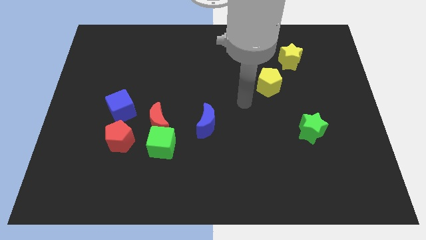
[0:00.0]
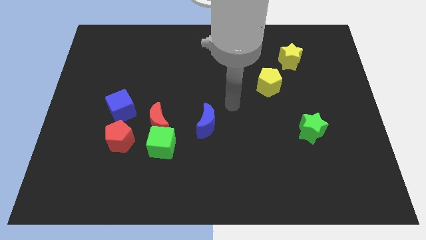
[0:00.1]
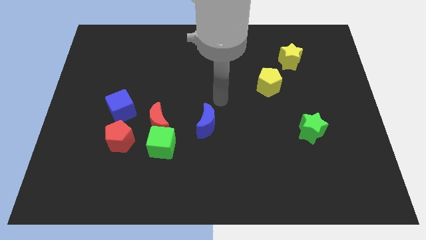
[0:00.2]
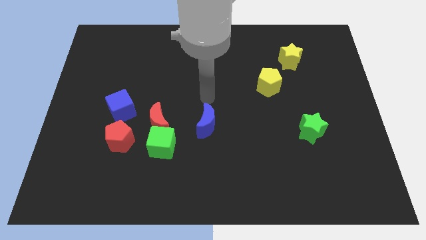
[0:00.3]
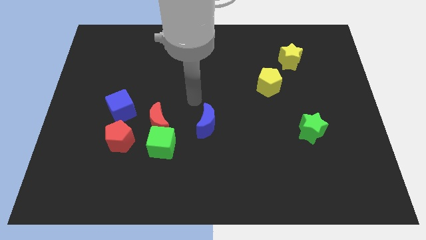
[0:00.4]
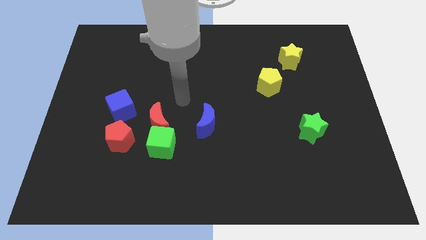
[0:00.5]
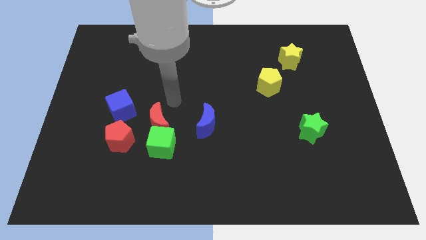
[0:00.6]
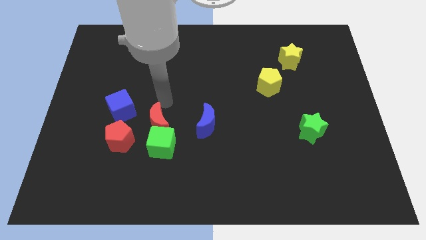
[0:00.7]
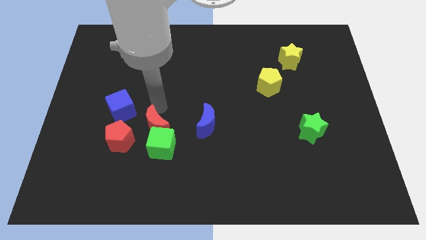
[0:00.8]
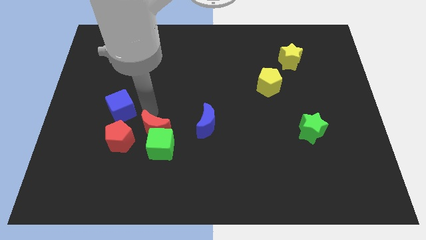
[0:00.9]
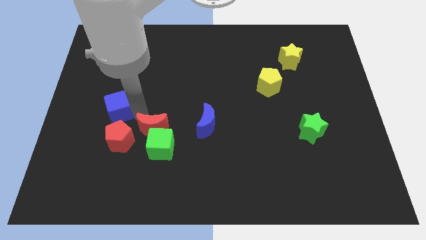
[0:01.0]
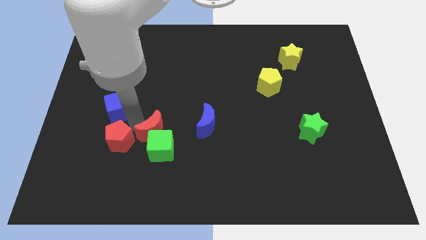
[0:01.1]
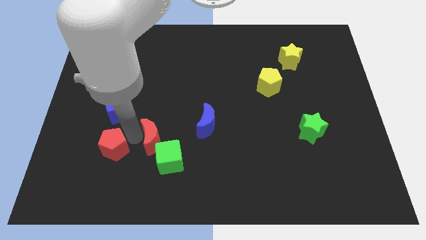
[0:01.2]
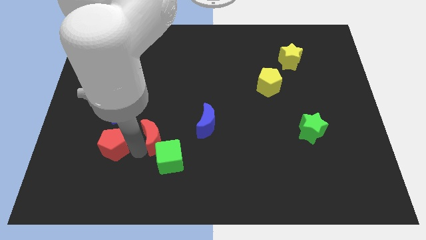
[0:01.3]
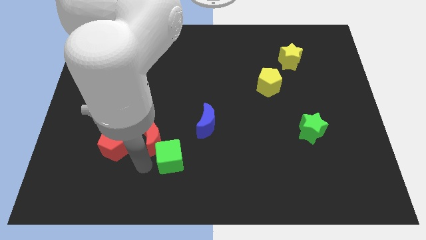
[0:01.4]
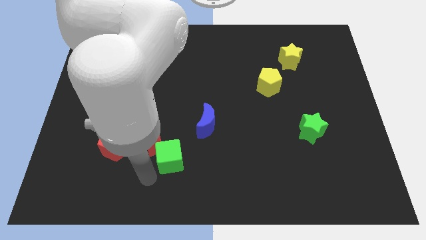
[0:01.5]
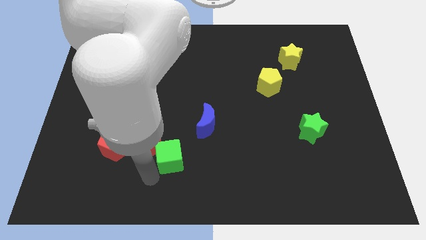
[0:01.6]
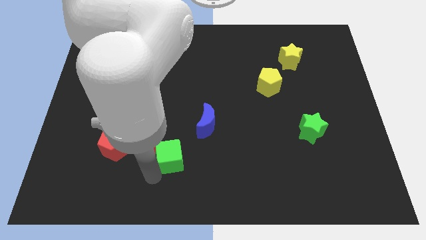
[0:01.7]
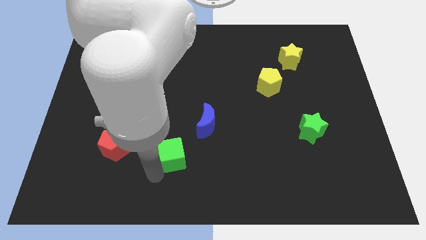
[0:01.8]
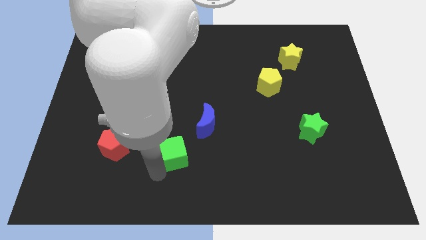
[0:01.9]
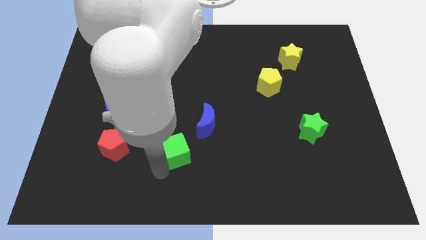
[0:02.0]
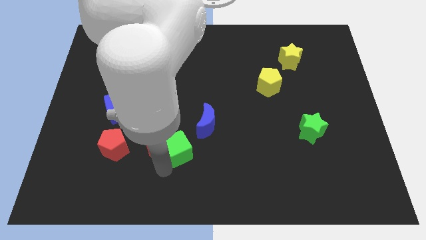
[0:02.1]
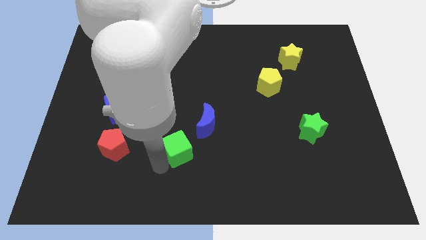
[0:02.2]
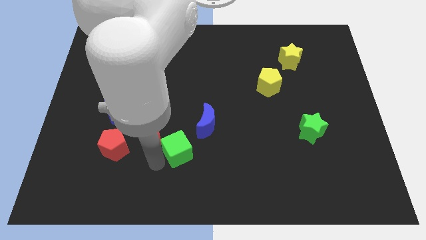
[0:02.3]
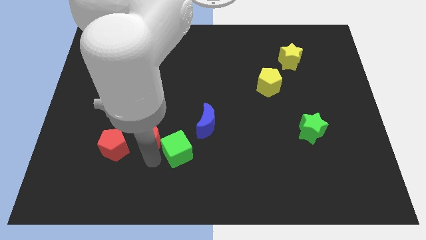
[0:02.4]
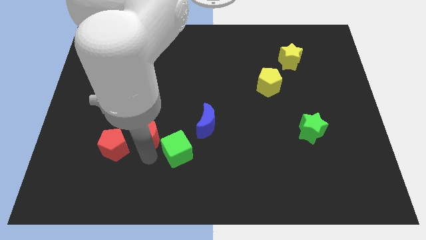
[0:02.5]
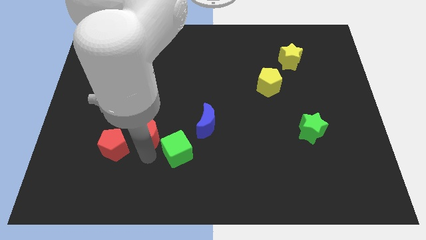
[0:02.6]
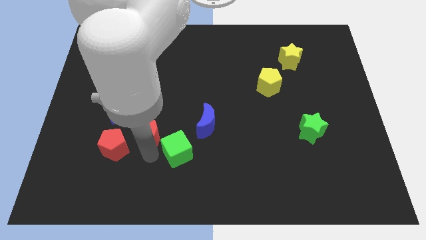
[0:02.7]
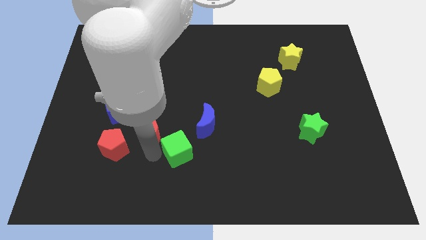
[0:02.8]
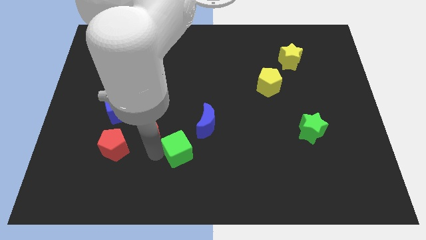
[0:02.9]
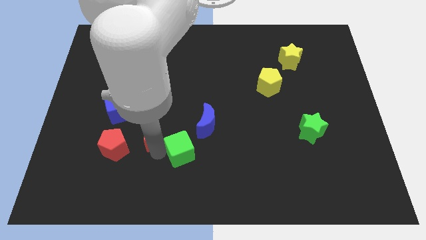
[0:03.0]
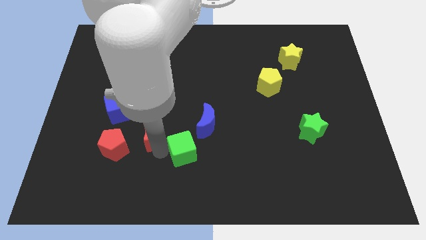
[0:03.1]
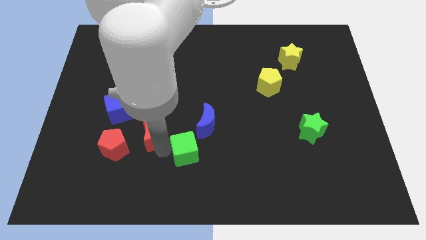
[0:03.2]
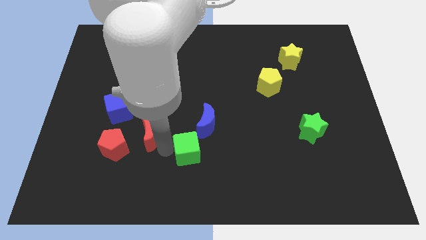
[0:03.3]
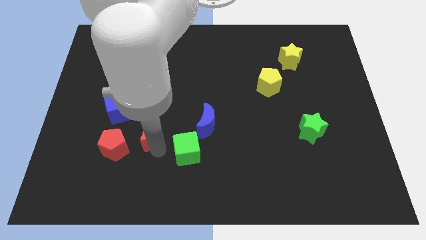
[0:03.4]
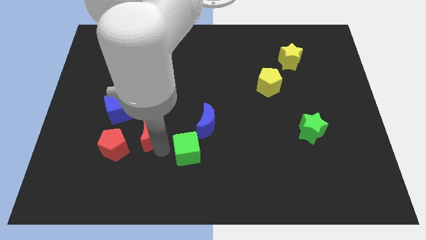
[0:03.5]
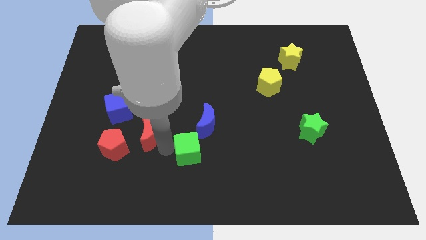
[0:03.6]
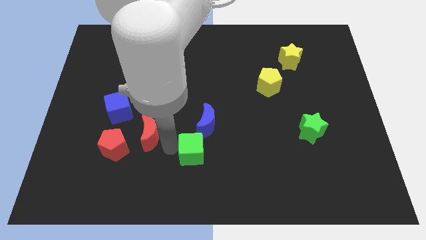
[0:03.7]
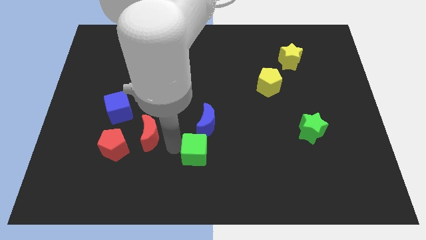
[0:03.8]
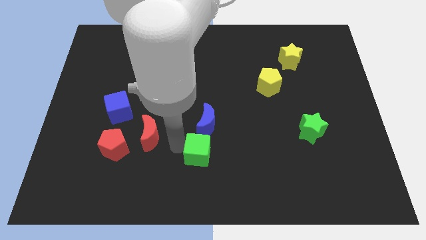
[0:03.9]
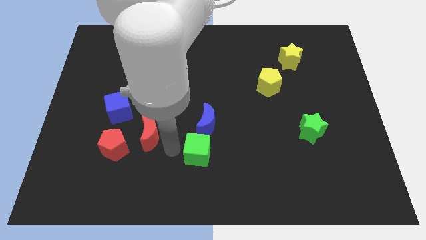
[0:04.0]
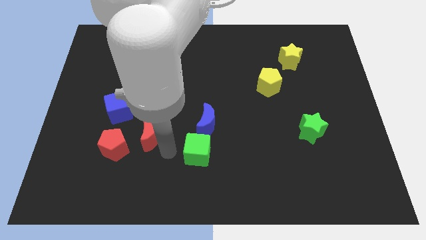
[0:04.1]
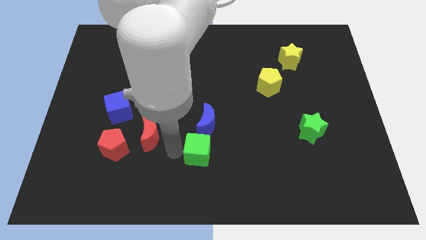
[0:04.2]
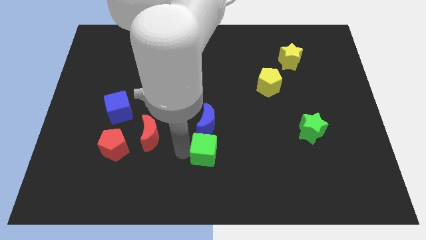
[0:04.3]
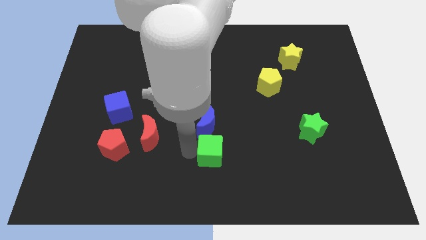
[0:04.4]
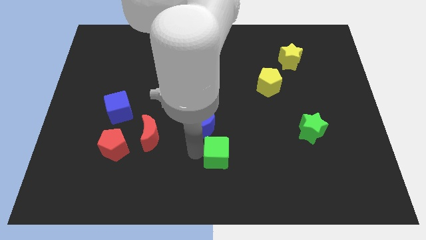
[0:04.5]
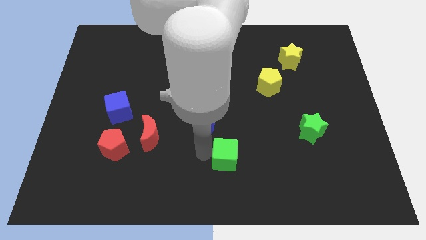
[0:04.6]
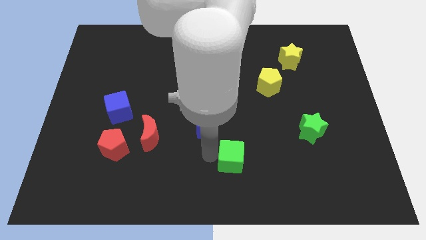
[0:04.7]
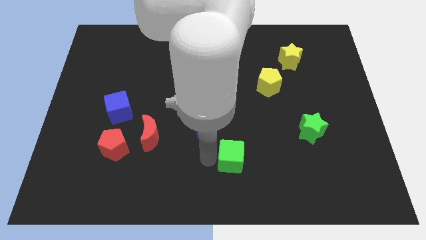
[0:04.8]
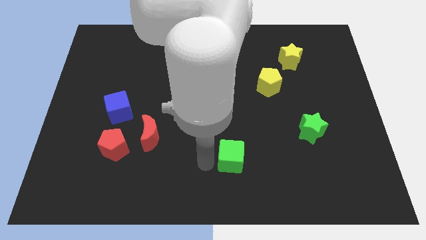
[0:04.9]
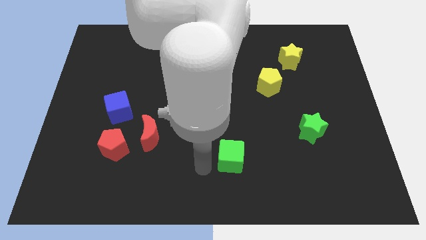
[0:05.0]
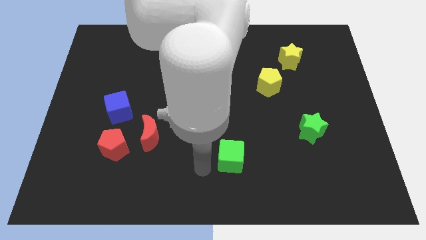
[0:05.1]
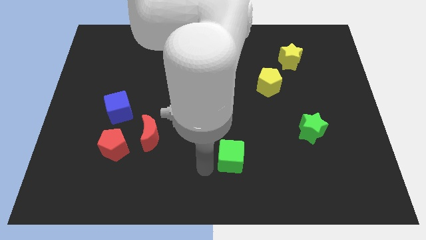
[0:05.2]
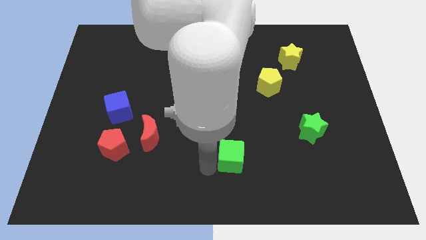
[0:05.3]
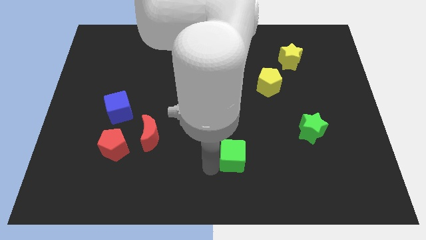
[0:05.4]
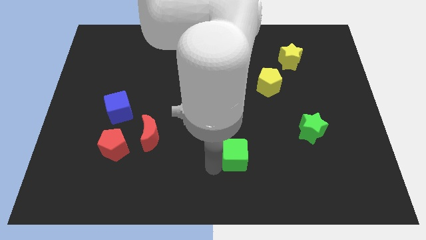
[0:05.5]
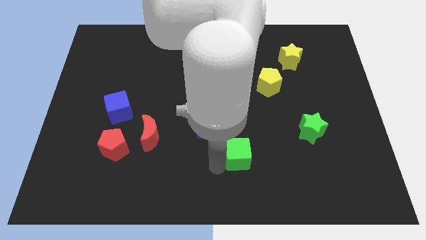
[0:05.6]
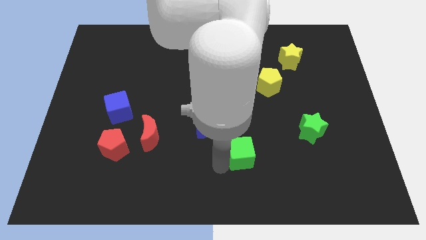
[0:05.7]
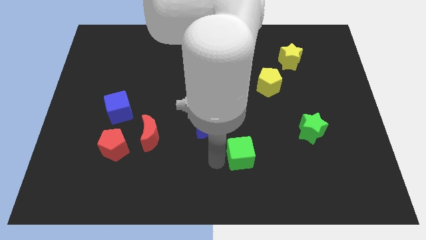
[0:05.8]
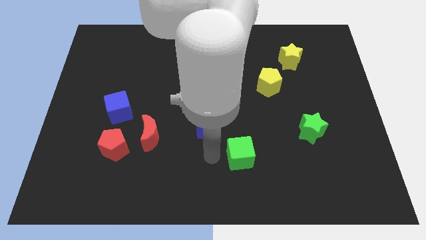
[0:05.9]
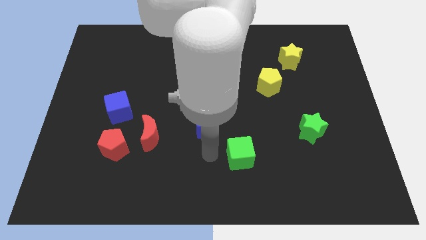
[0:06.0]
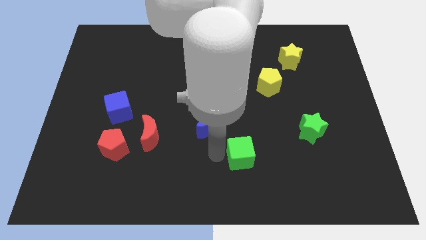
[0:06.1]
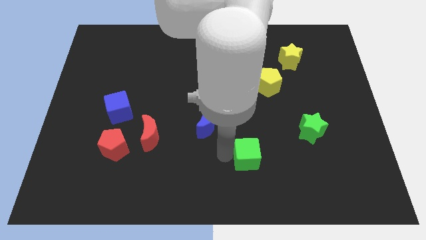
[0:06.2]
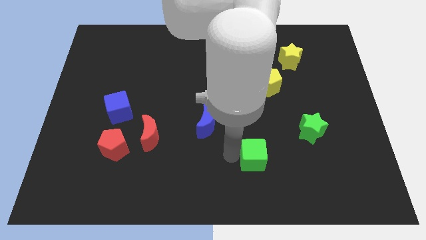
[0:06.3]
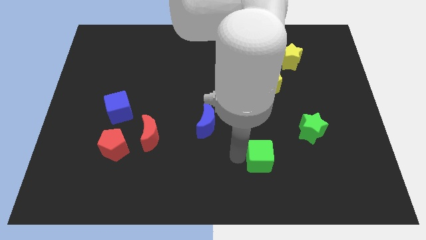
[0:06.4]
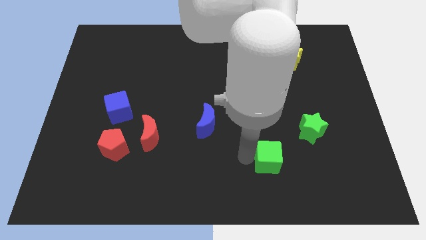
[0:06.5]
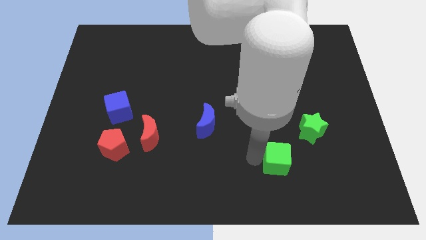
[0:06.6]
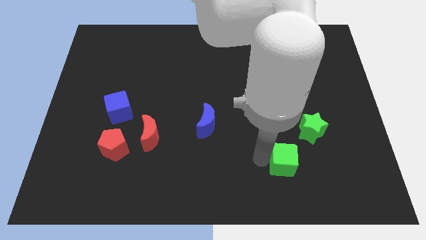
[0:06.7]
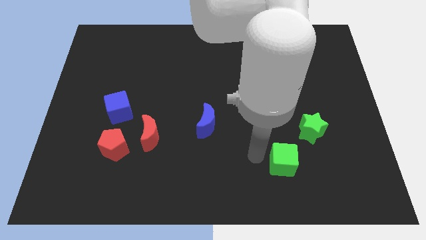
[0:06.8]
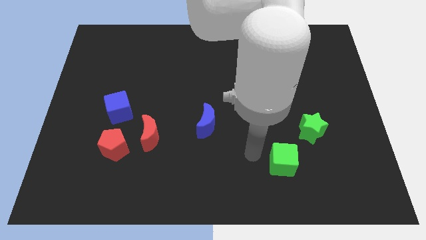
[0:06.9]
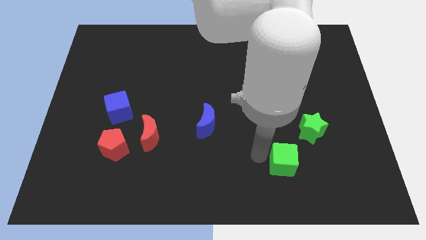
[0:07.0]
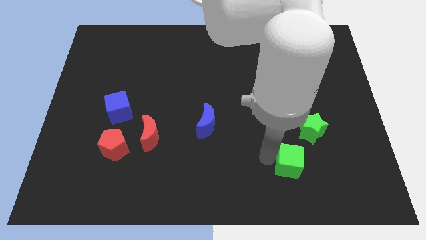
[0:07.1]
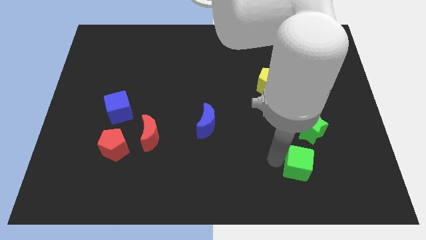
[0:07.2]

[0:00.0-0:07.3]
move the green cube below the green star
